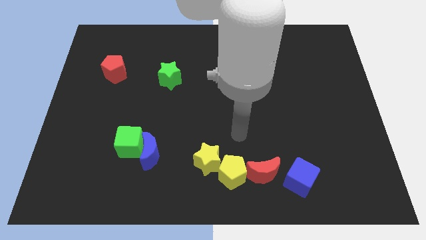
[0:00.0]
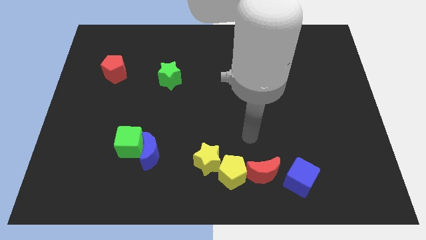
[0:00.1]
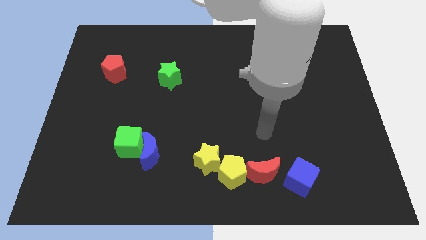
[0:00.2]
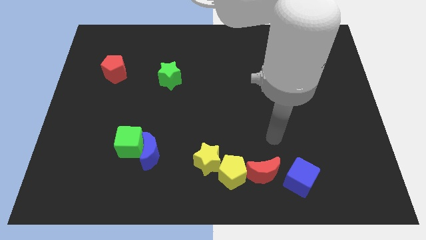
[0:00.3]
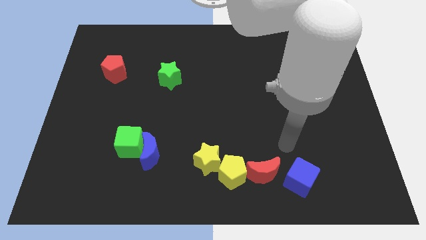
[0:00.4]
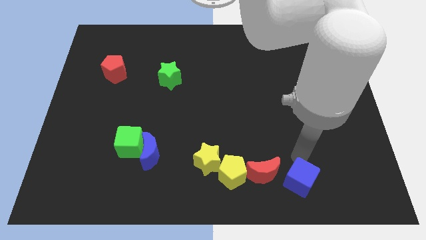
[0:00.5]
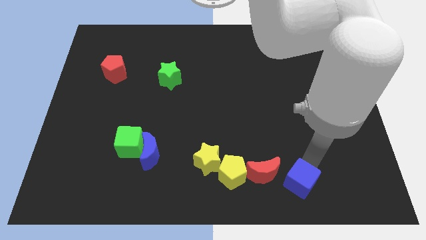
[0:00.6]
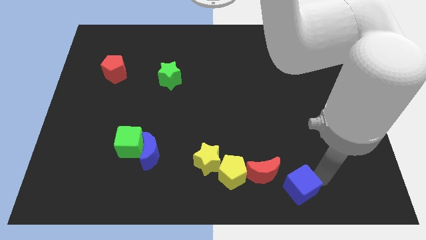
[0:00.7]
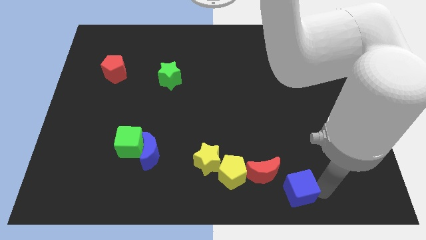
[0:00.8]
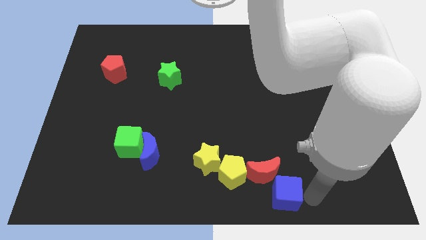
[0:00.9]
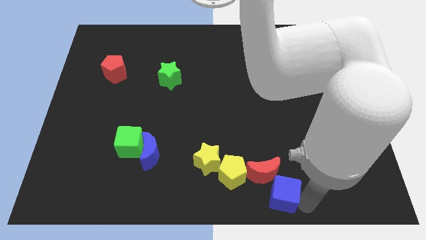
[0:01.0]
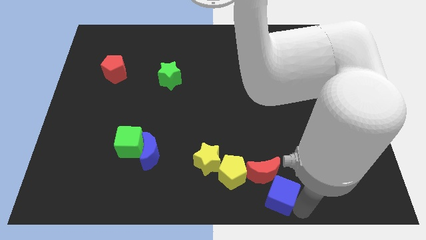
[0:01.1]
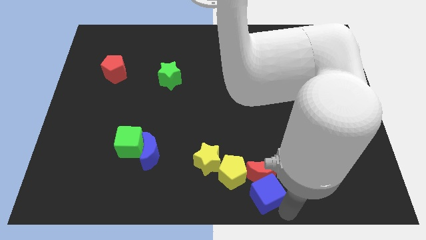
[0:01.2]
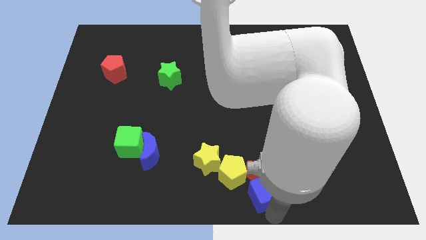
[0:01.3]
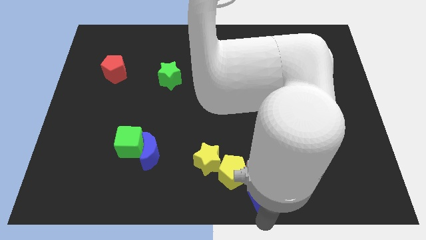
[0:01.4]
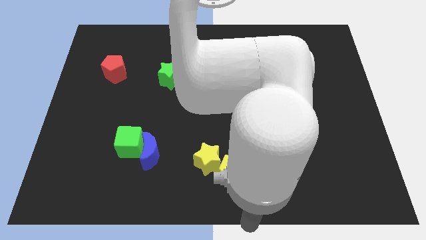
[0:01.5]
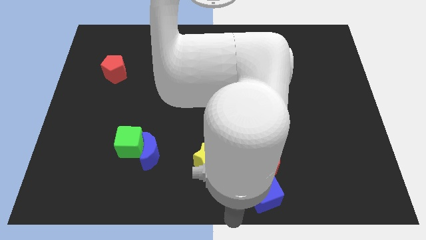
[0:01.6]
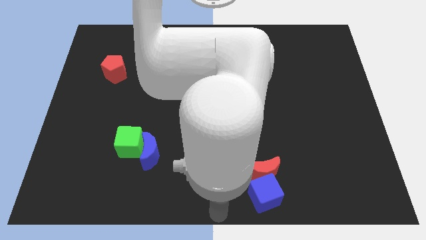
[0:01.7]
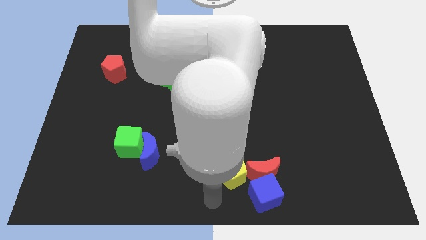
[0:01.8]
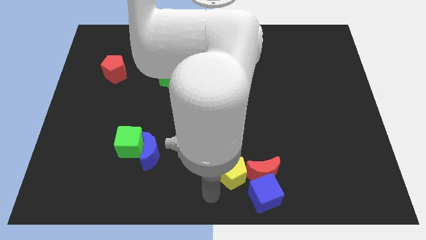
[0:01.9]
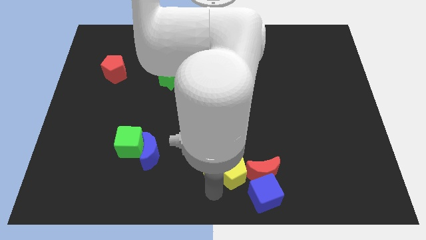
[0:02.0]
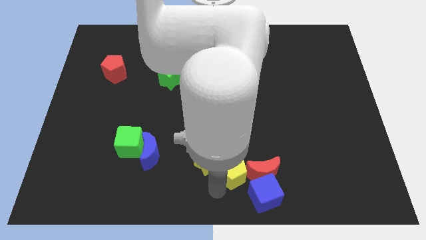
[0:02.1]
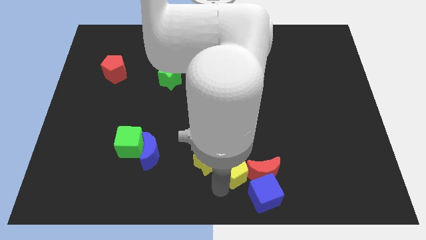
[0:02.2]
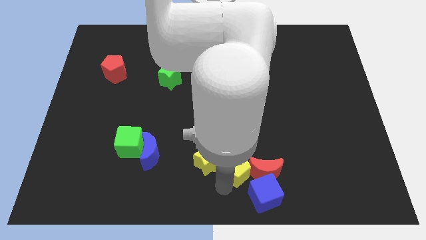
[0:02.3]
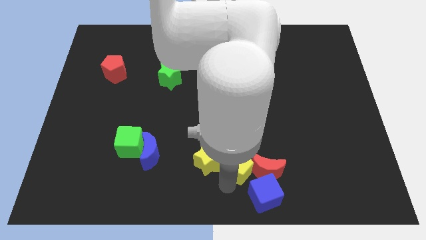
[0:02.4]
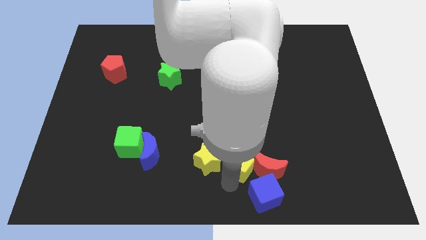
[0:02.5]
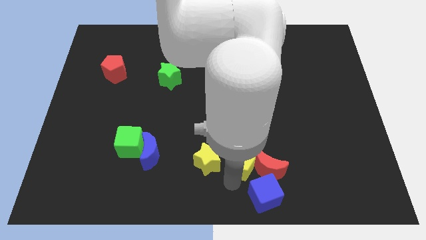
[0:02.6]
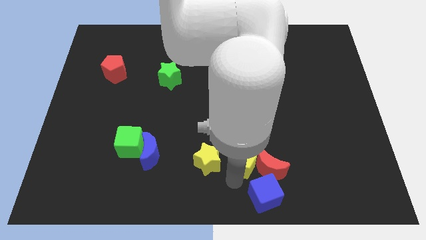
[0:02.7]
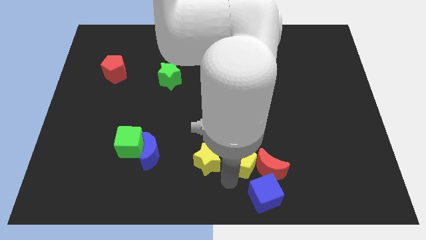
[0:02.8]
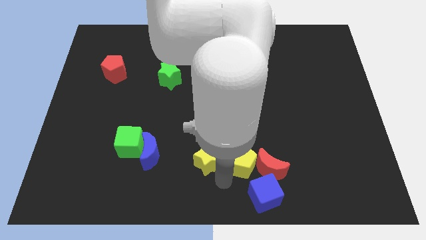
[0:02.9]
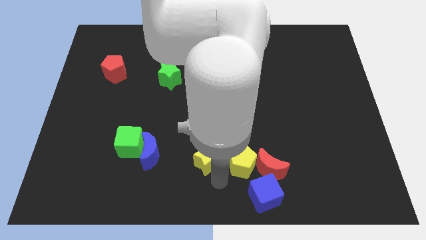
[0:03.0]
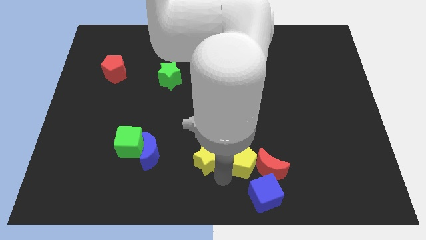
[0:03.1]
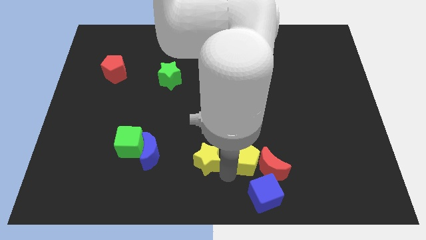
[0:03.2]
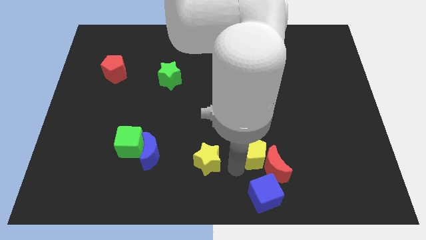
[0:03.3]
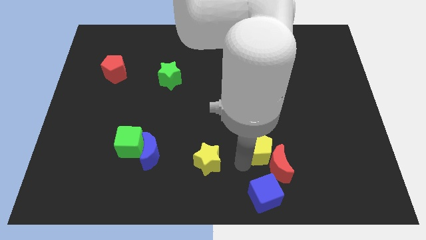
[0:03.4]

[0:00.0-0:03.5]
move the yellow pentagon a little bit up and right

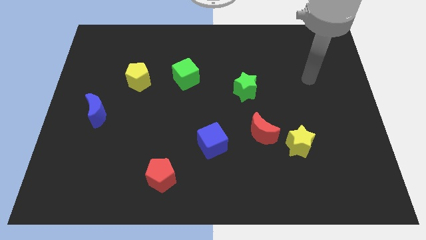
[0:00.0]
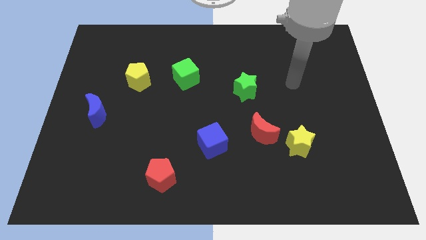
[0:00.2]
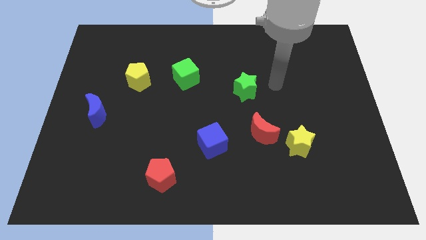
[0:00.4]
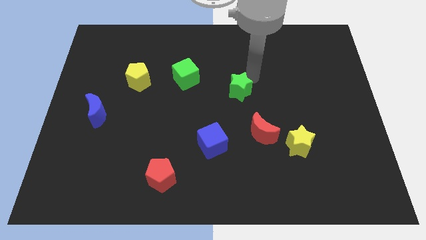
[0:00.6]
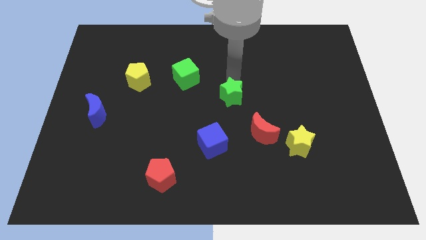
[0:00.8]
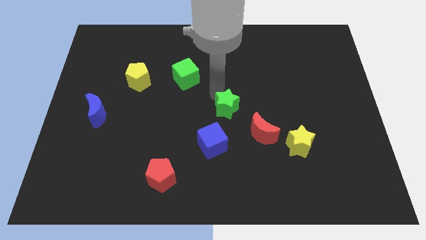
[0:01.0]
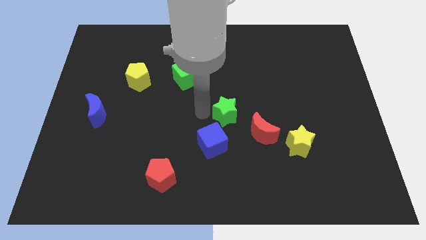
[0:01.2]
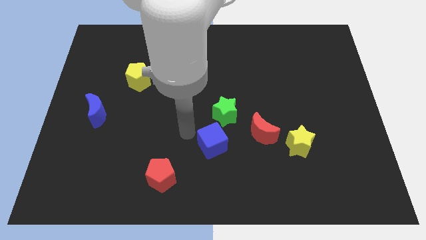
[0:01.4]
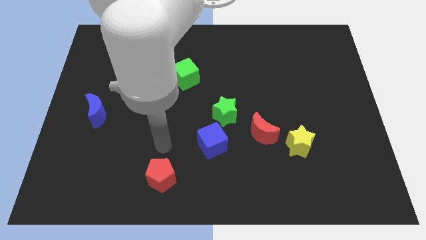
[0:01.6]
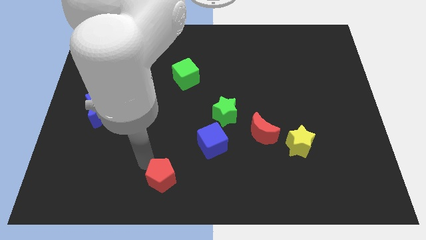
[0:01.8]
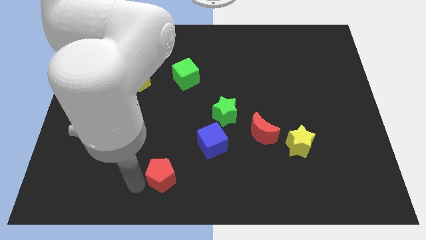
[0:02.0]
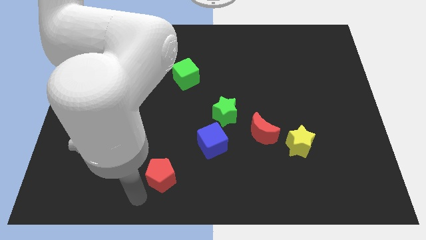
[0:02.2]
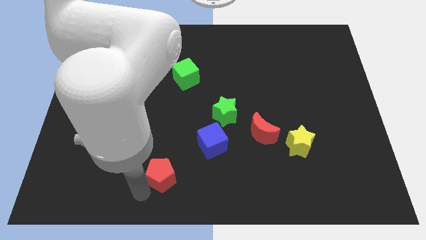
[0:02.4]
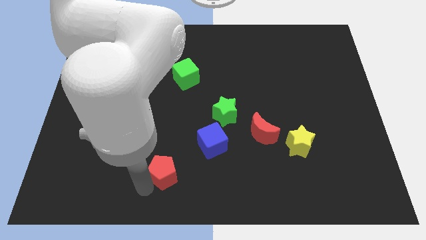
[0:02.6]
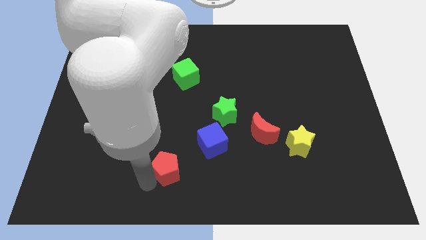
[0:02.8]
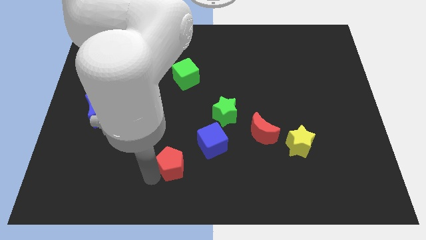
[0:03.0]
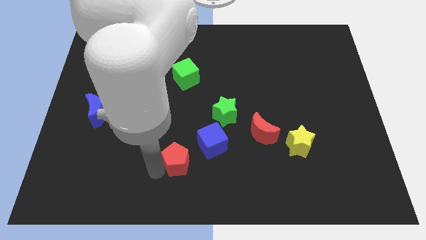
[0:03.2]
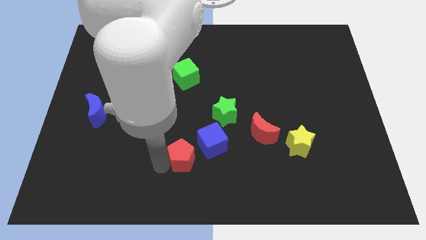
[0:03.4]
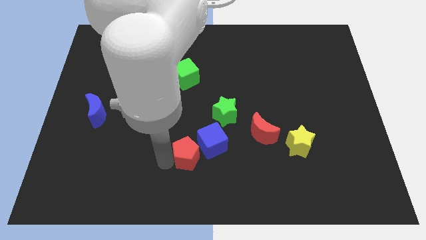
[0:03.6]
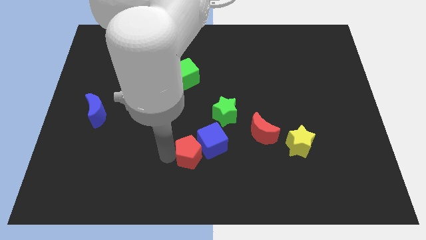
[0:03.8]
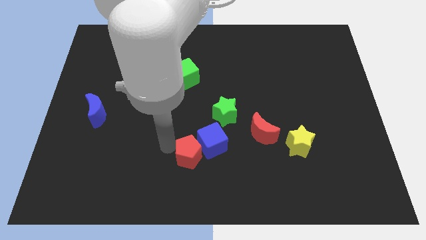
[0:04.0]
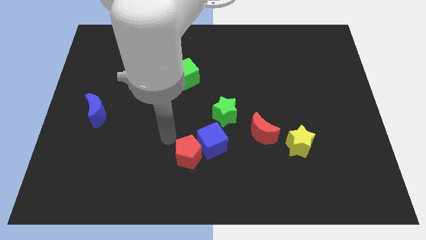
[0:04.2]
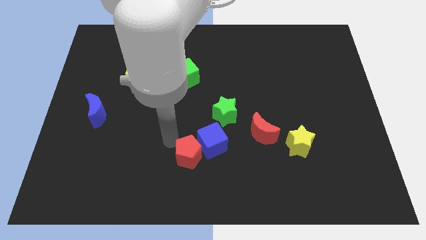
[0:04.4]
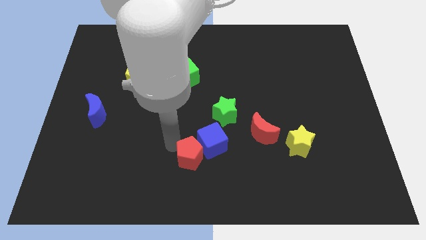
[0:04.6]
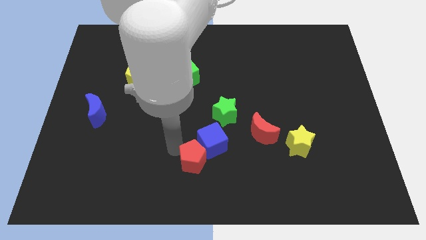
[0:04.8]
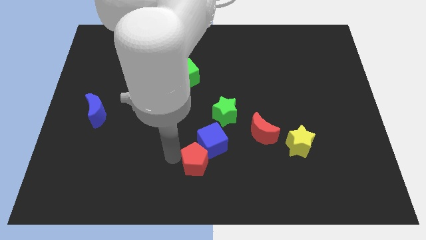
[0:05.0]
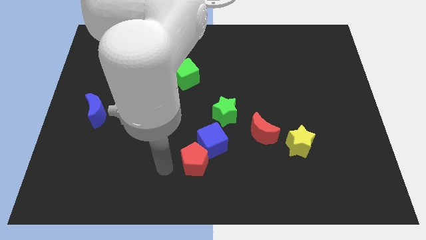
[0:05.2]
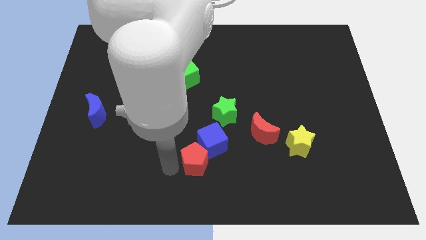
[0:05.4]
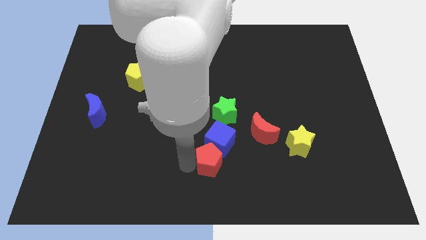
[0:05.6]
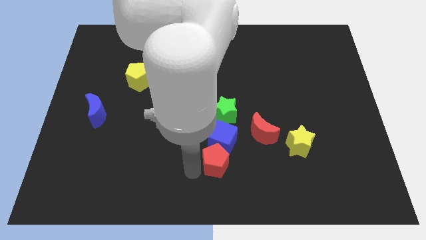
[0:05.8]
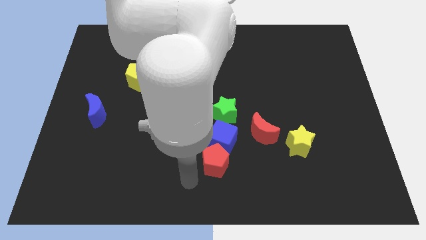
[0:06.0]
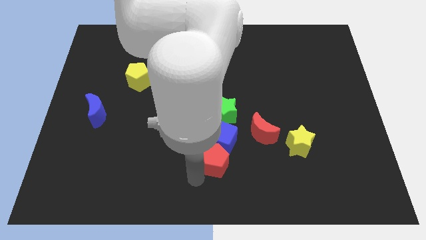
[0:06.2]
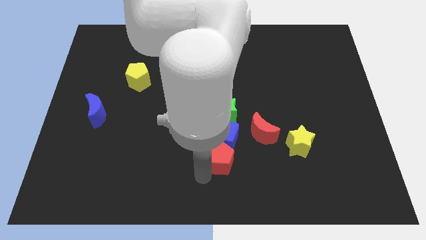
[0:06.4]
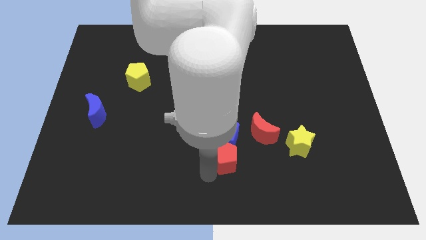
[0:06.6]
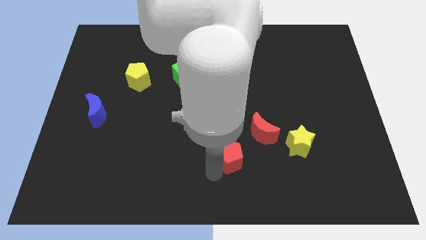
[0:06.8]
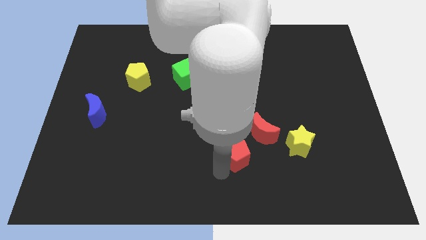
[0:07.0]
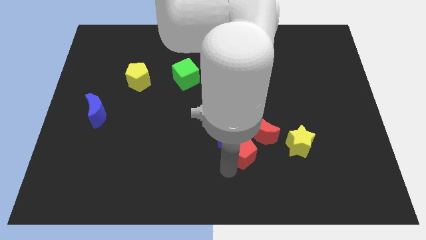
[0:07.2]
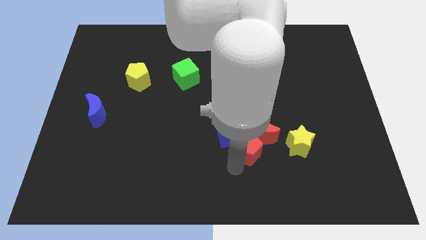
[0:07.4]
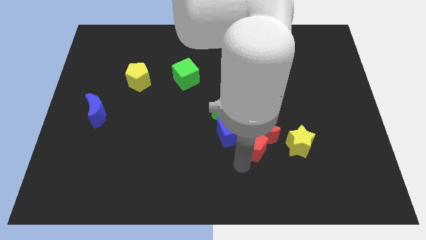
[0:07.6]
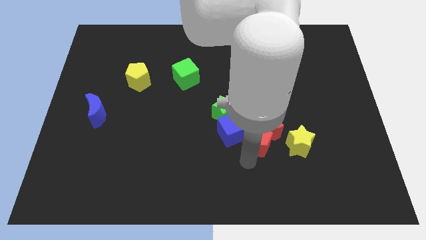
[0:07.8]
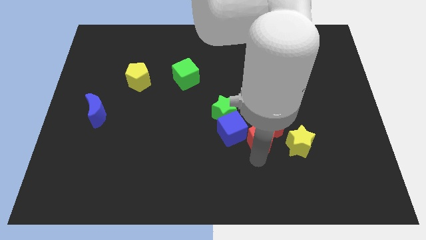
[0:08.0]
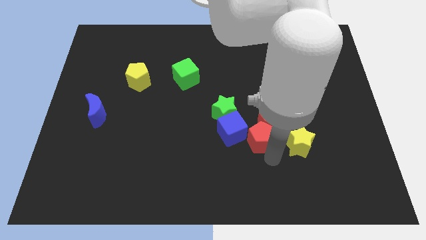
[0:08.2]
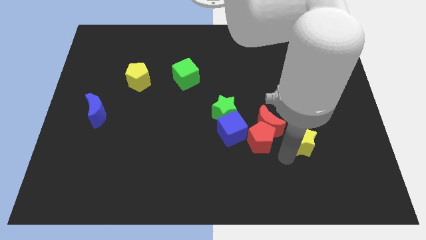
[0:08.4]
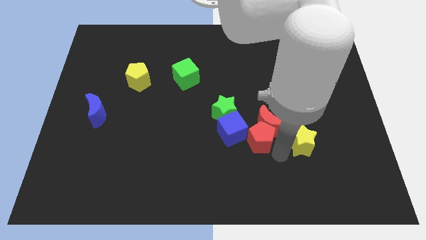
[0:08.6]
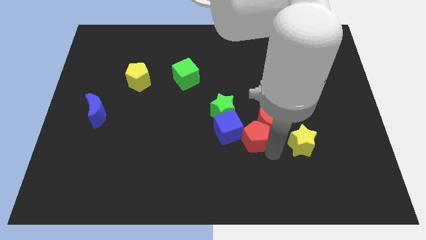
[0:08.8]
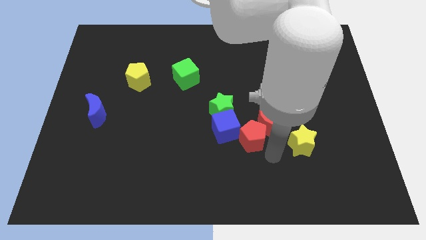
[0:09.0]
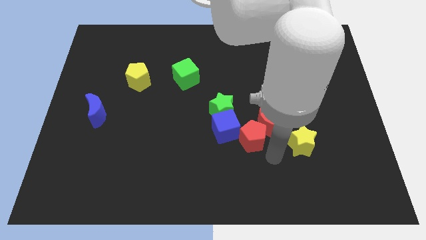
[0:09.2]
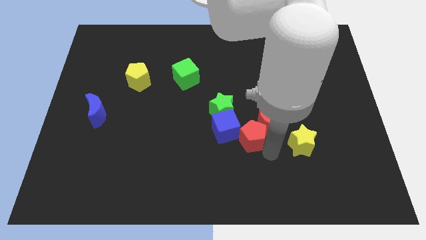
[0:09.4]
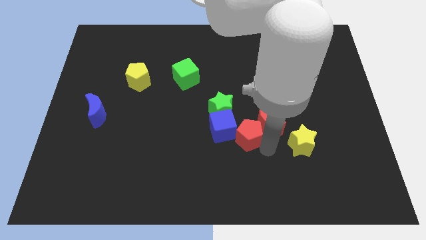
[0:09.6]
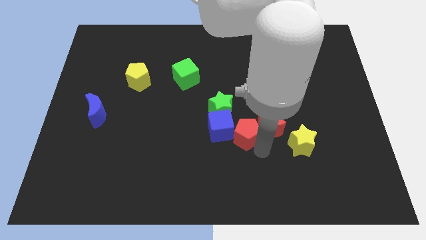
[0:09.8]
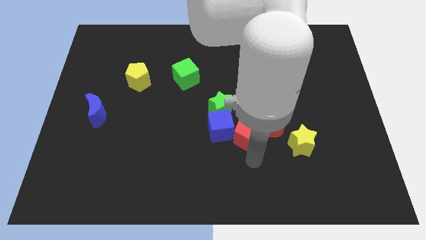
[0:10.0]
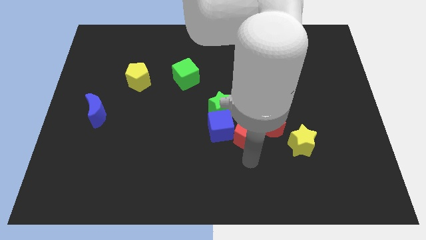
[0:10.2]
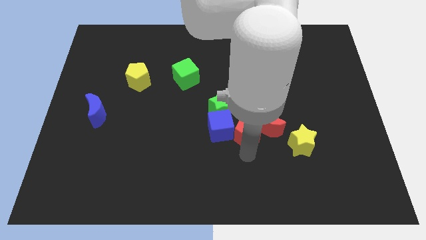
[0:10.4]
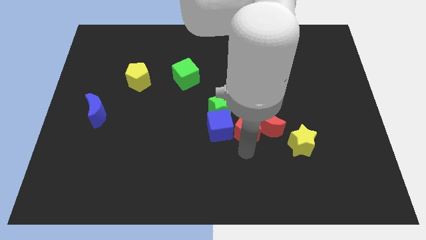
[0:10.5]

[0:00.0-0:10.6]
slide the red pentagon upwards and to the right
